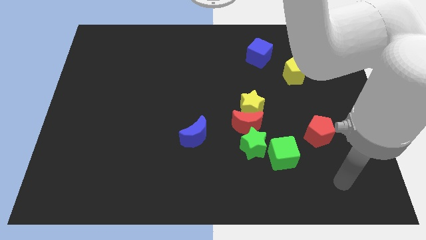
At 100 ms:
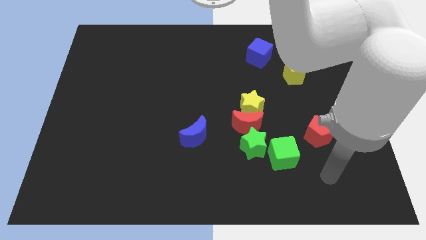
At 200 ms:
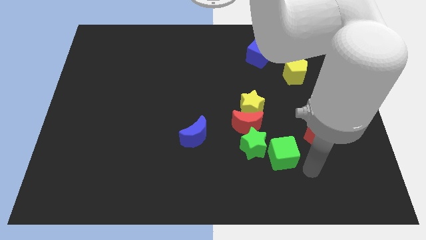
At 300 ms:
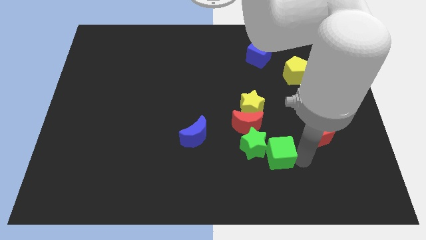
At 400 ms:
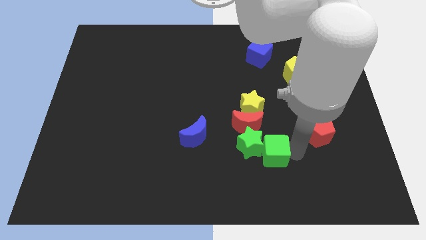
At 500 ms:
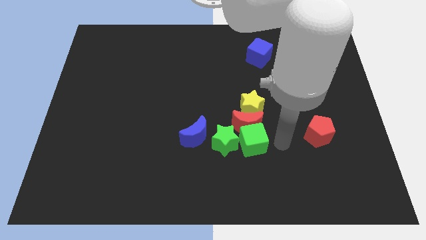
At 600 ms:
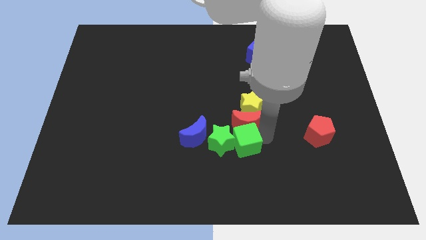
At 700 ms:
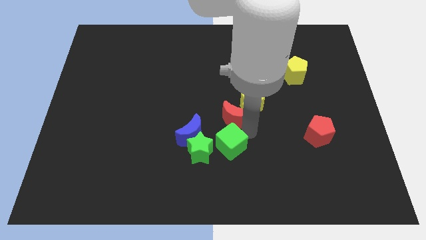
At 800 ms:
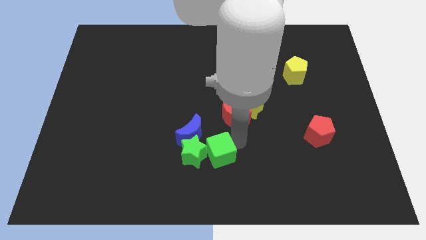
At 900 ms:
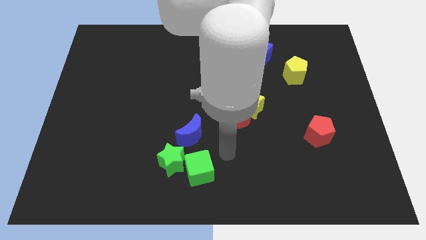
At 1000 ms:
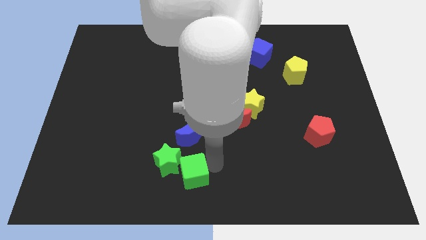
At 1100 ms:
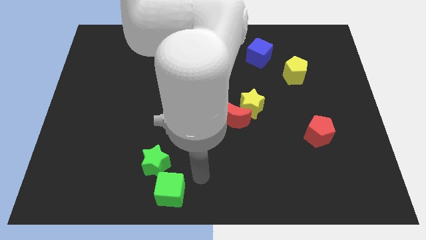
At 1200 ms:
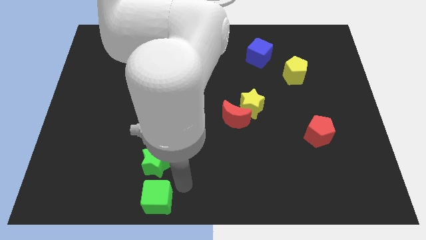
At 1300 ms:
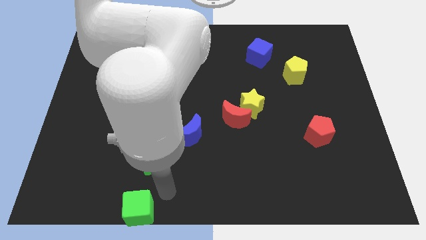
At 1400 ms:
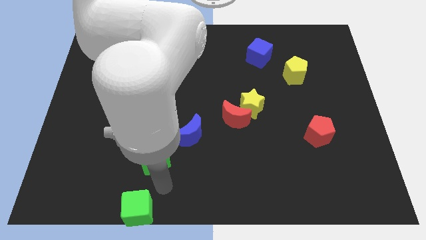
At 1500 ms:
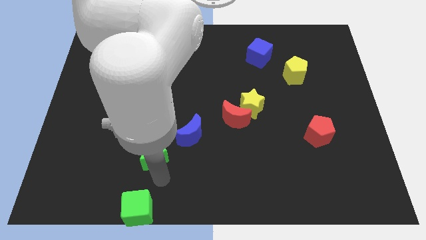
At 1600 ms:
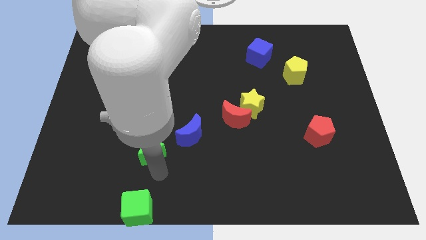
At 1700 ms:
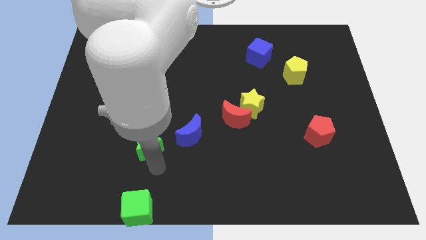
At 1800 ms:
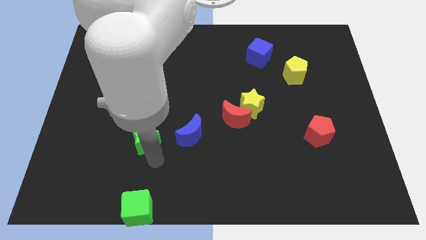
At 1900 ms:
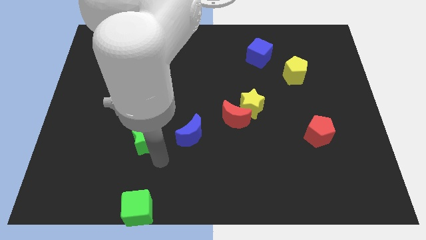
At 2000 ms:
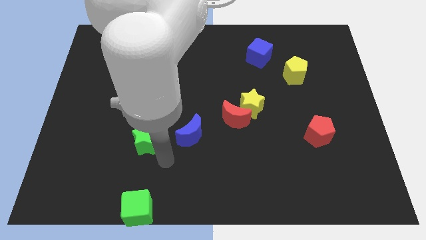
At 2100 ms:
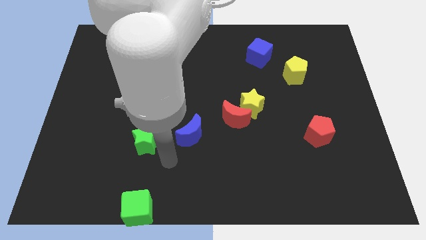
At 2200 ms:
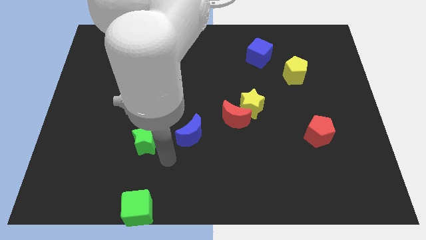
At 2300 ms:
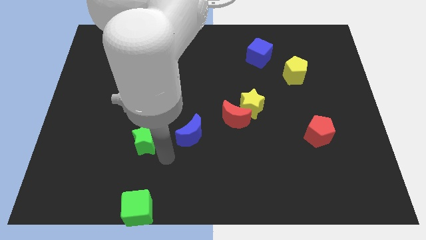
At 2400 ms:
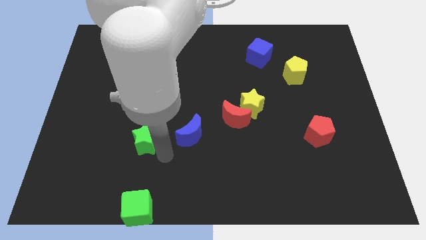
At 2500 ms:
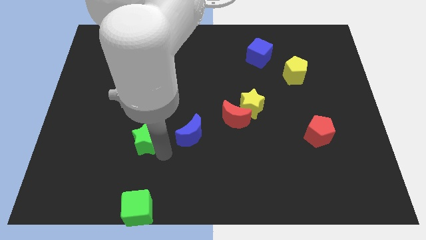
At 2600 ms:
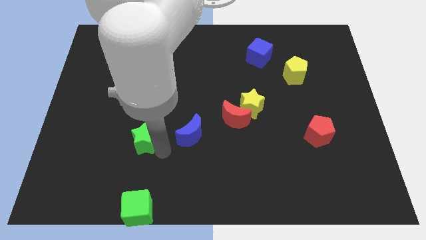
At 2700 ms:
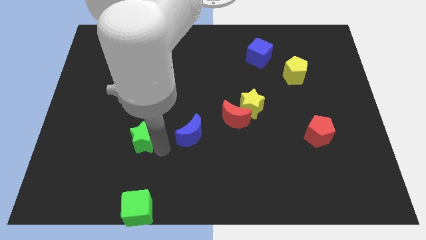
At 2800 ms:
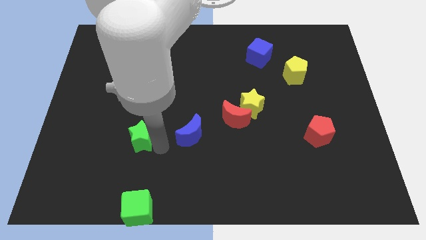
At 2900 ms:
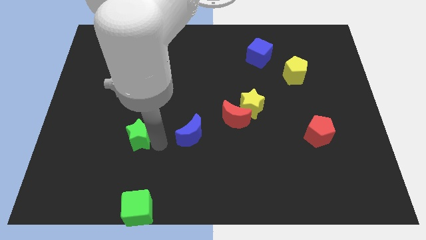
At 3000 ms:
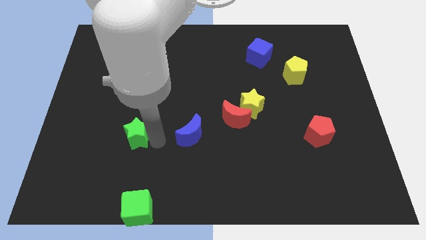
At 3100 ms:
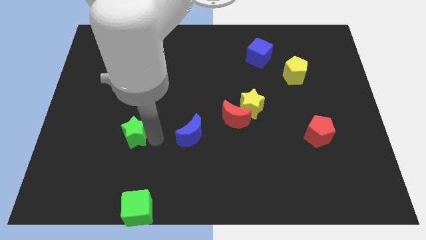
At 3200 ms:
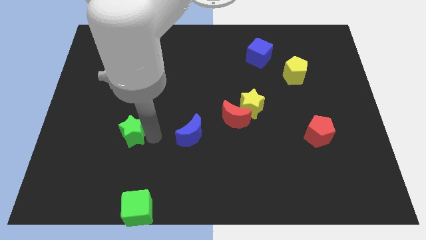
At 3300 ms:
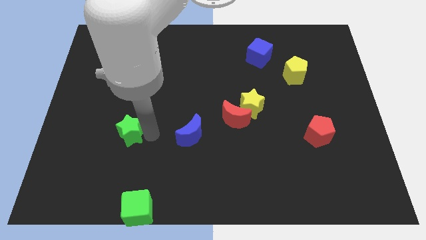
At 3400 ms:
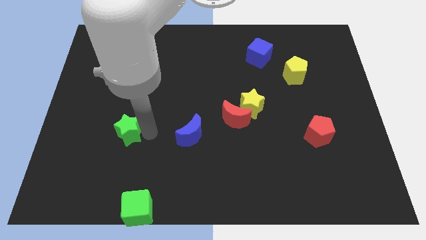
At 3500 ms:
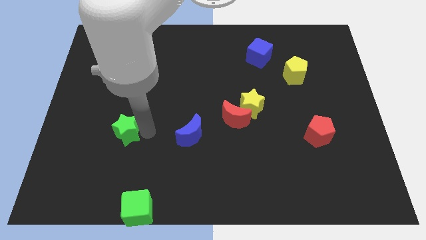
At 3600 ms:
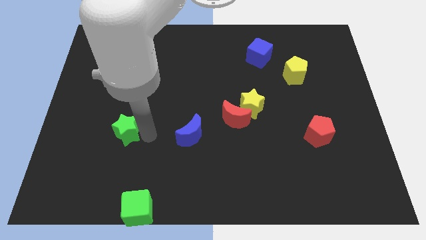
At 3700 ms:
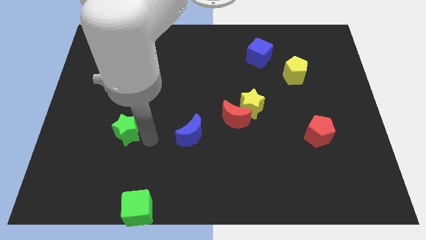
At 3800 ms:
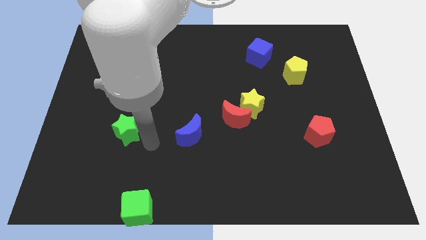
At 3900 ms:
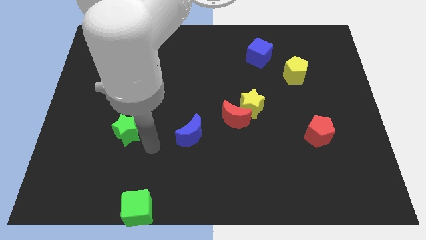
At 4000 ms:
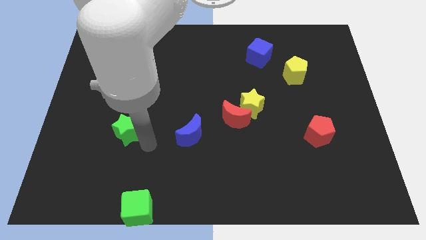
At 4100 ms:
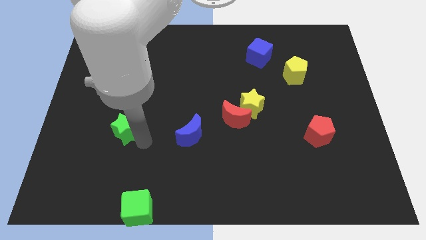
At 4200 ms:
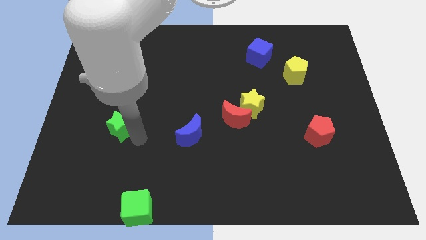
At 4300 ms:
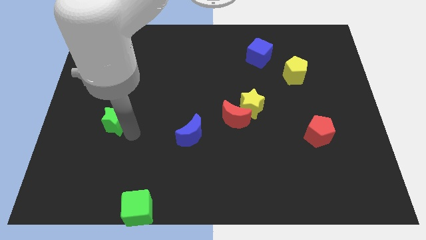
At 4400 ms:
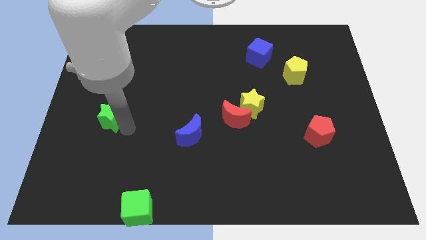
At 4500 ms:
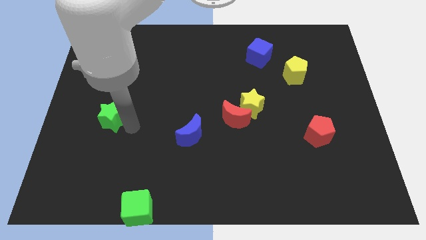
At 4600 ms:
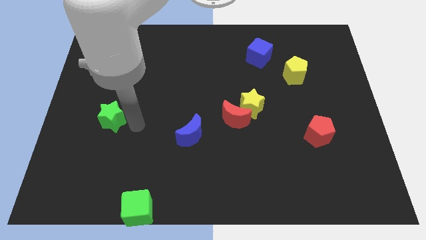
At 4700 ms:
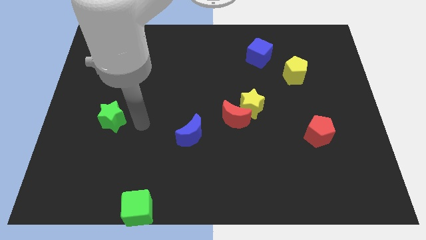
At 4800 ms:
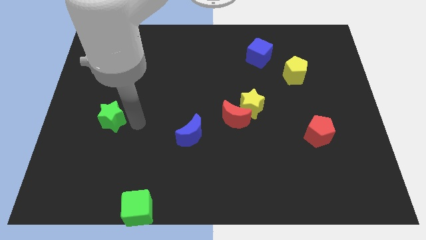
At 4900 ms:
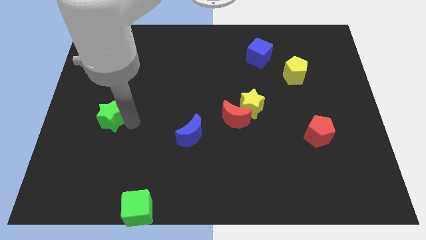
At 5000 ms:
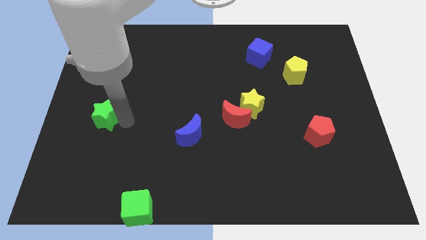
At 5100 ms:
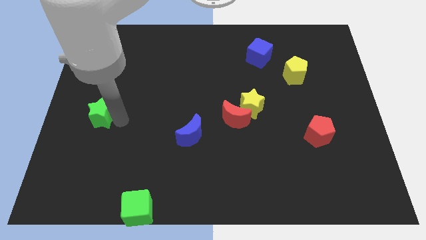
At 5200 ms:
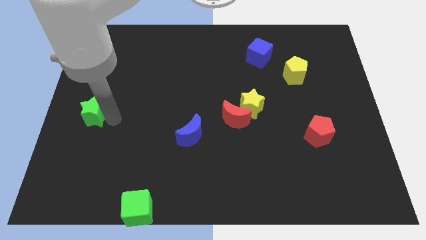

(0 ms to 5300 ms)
push the green star to the center left

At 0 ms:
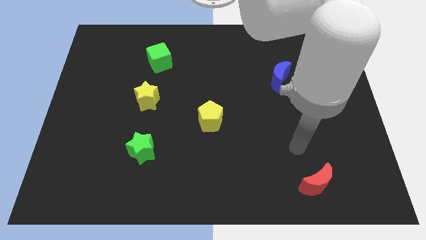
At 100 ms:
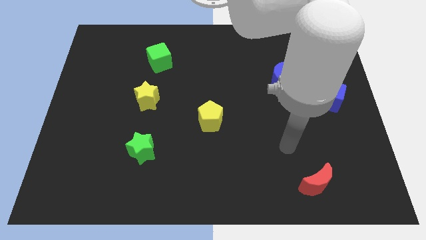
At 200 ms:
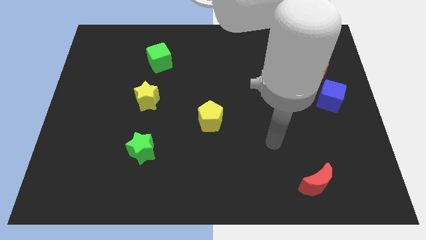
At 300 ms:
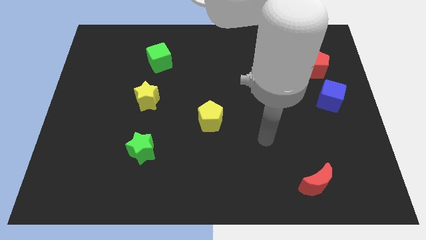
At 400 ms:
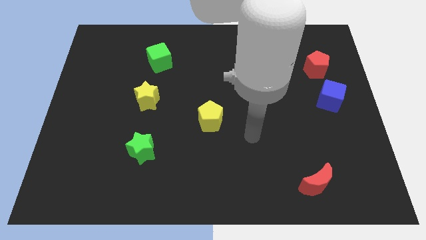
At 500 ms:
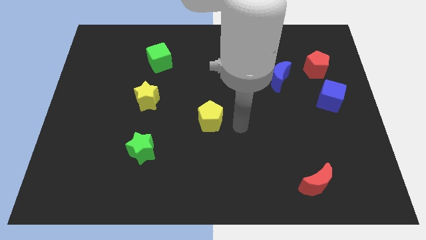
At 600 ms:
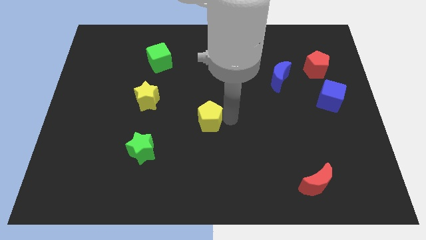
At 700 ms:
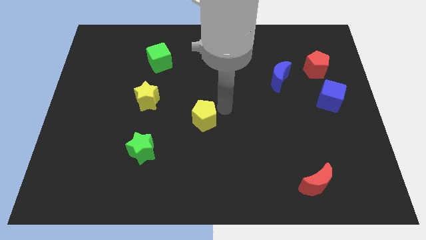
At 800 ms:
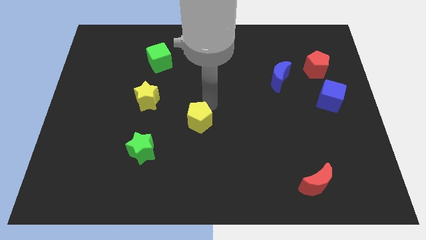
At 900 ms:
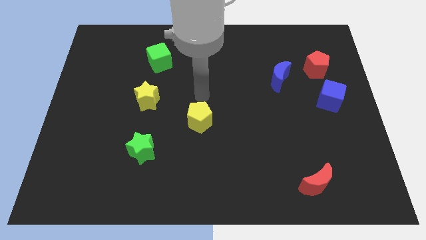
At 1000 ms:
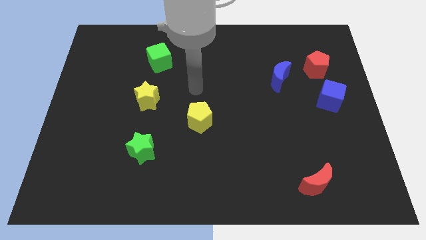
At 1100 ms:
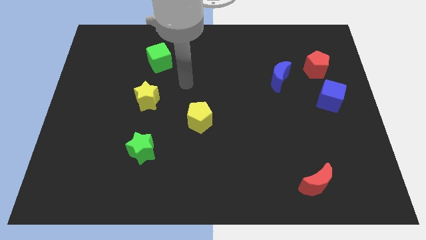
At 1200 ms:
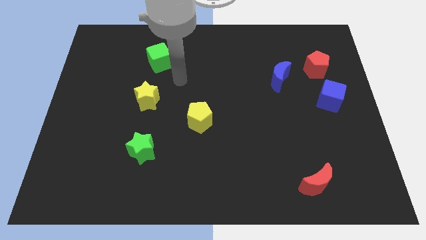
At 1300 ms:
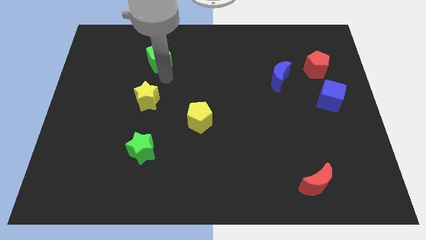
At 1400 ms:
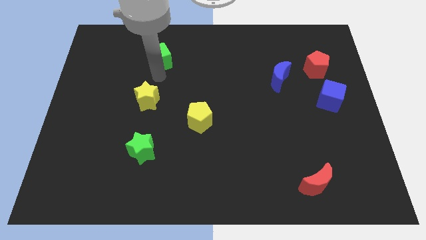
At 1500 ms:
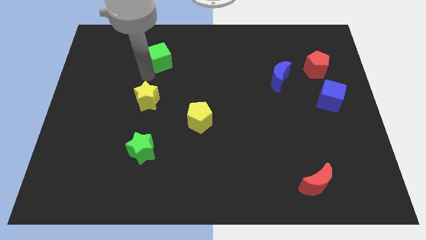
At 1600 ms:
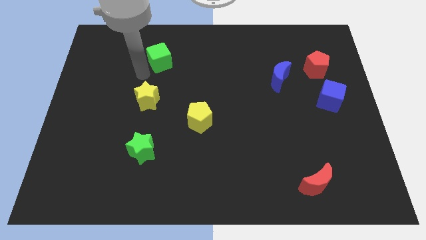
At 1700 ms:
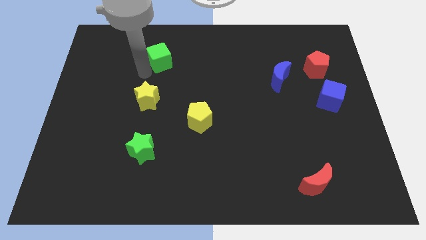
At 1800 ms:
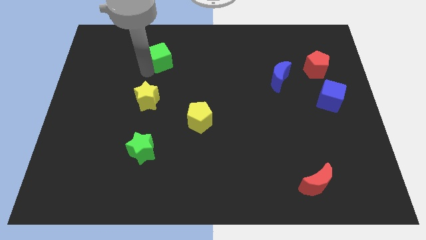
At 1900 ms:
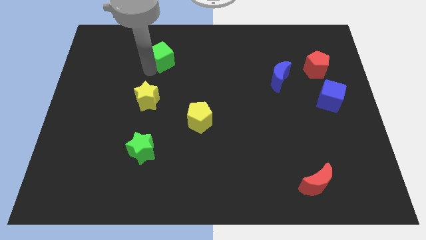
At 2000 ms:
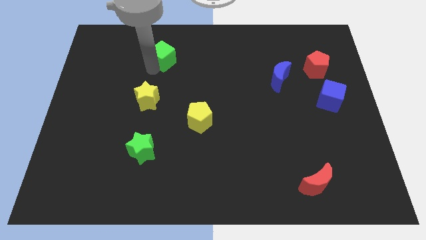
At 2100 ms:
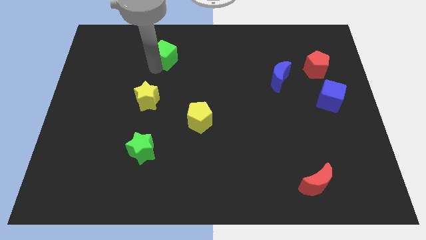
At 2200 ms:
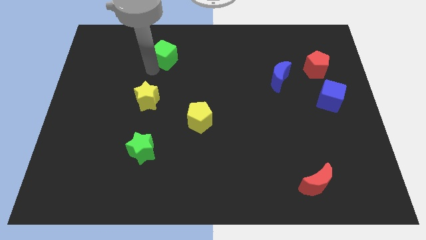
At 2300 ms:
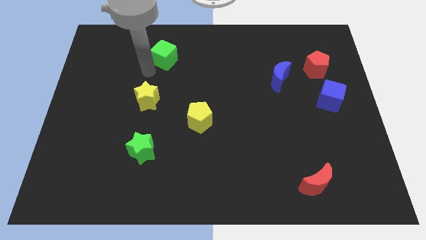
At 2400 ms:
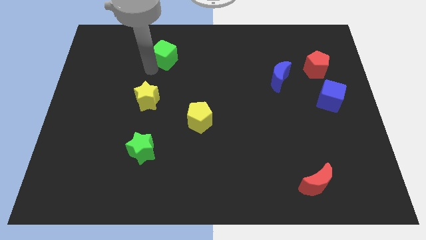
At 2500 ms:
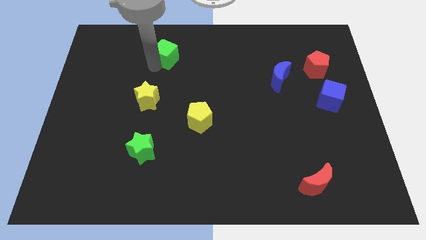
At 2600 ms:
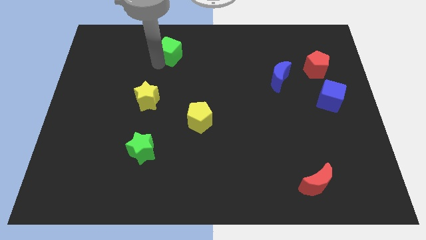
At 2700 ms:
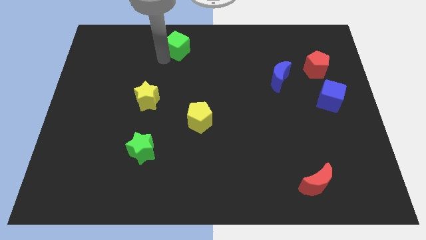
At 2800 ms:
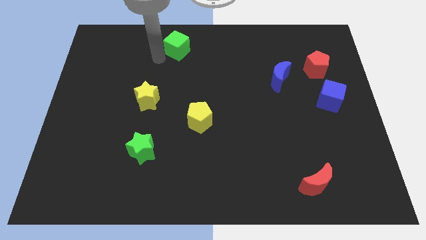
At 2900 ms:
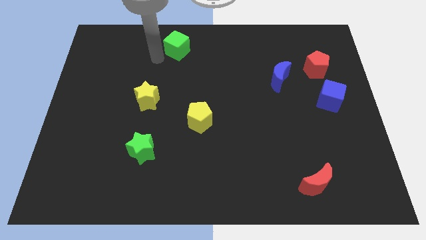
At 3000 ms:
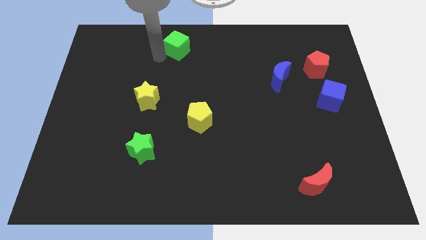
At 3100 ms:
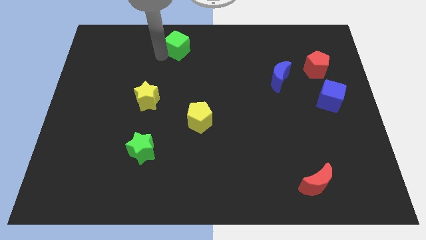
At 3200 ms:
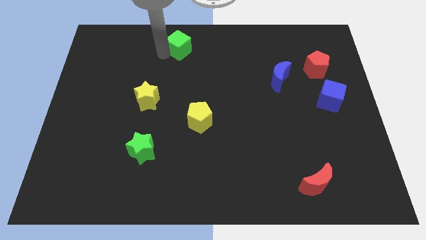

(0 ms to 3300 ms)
put the green cube to the towards your base
